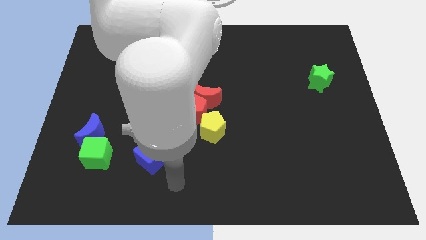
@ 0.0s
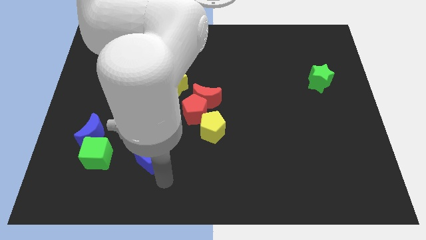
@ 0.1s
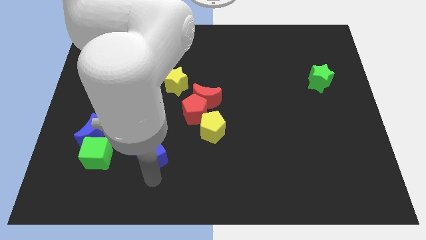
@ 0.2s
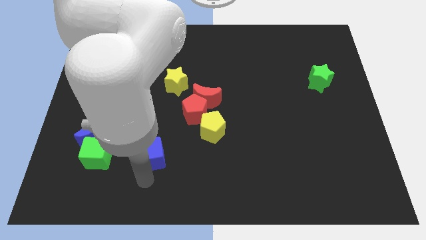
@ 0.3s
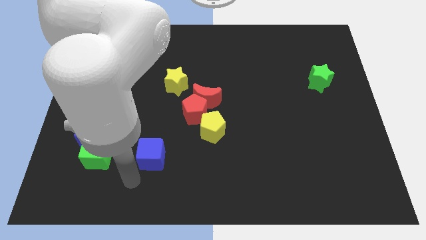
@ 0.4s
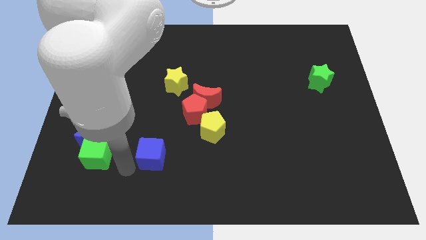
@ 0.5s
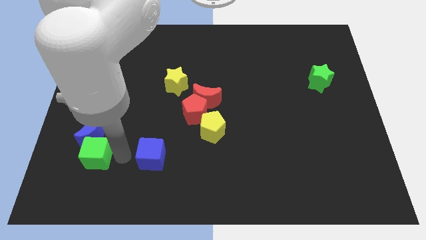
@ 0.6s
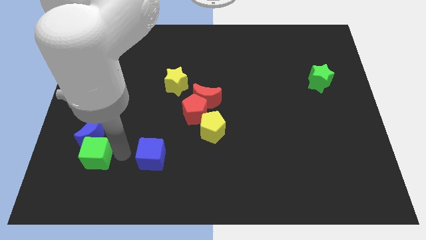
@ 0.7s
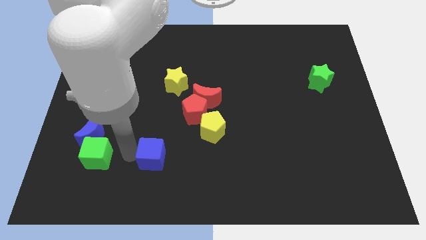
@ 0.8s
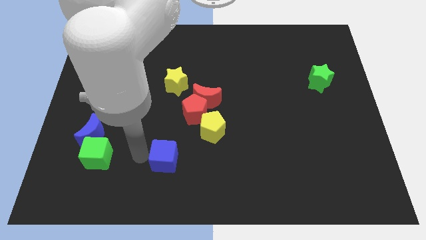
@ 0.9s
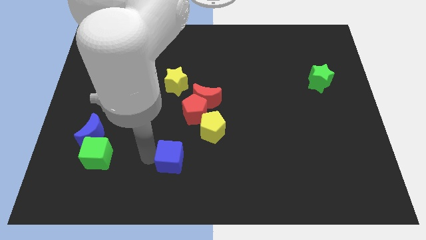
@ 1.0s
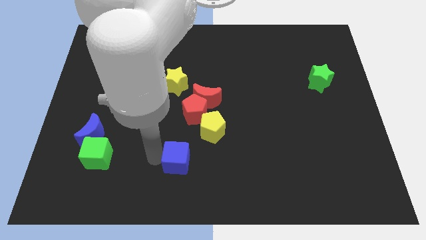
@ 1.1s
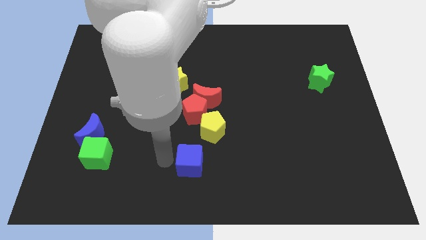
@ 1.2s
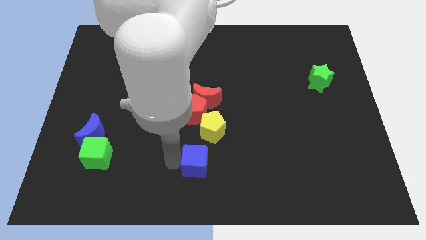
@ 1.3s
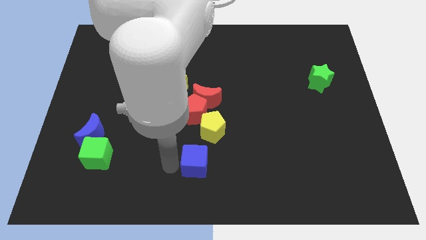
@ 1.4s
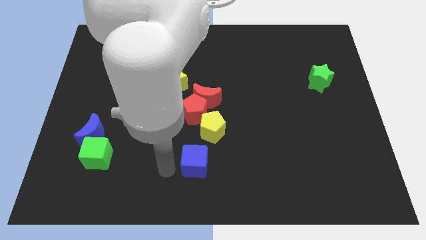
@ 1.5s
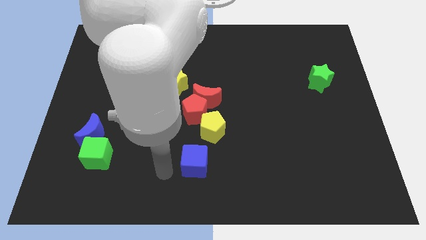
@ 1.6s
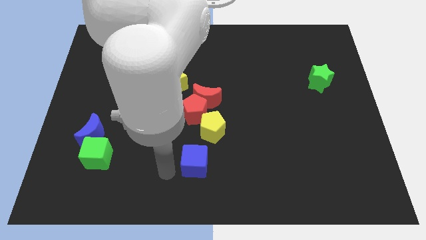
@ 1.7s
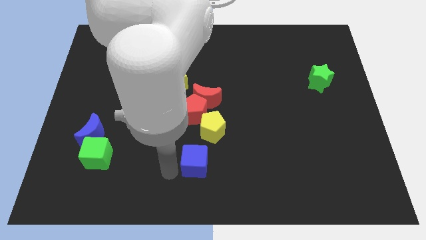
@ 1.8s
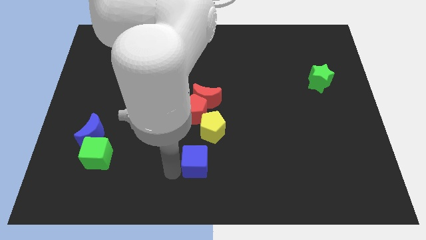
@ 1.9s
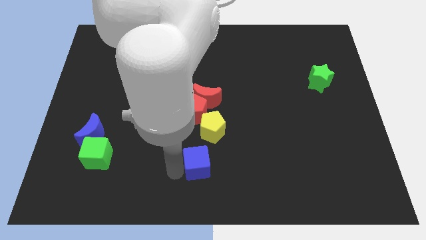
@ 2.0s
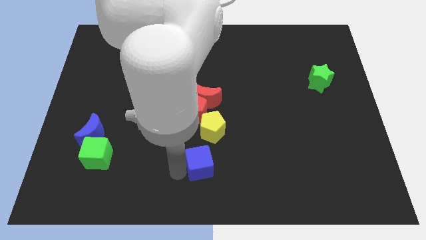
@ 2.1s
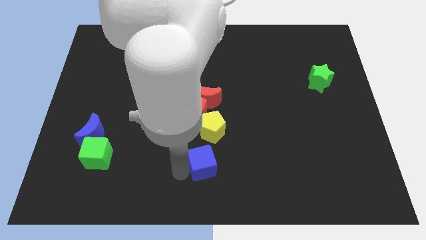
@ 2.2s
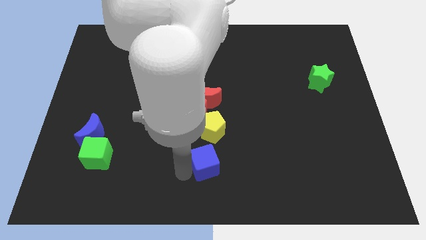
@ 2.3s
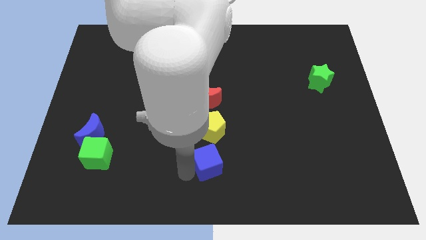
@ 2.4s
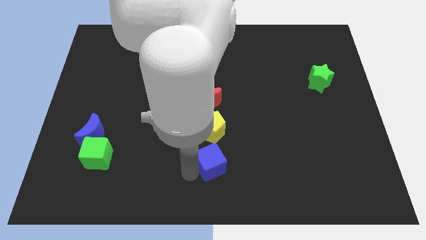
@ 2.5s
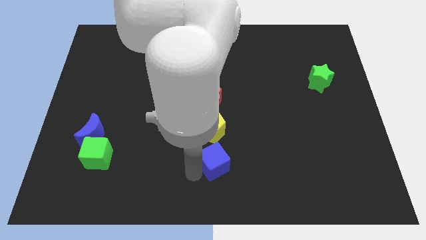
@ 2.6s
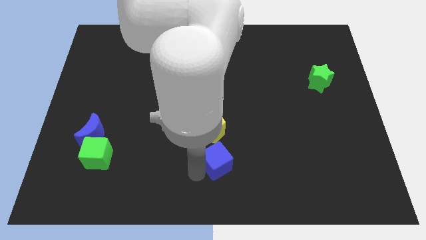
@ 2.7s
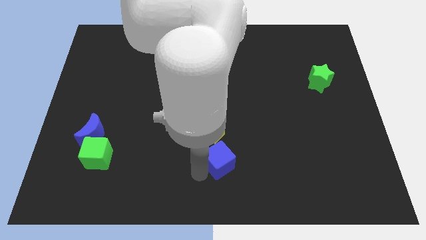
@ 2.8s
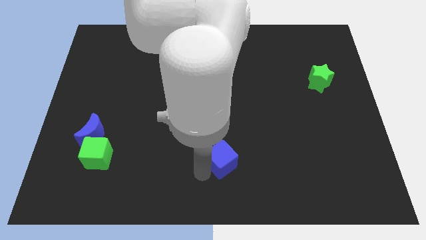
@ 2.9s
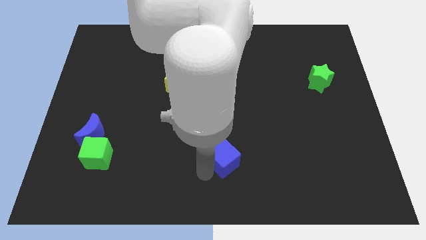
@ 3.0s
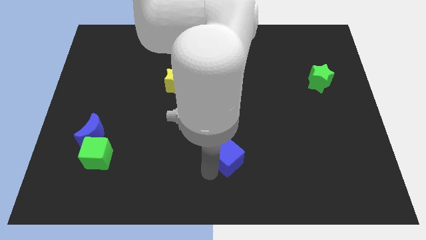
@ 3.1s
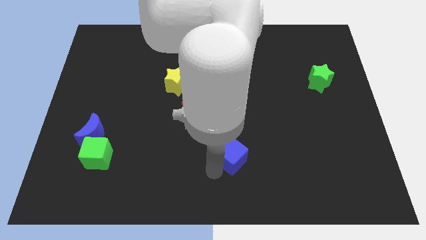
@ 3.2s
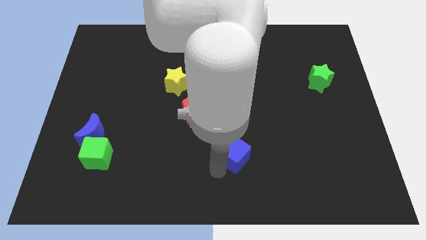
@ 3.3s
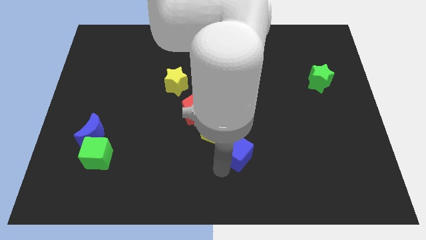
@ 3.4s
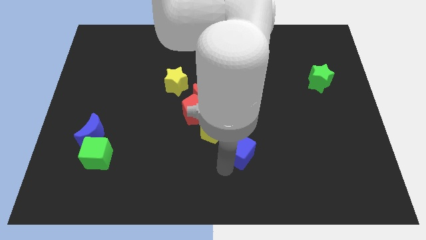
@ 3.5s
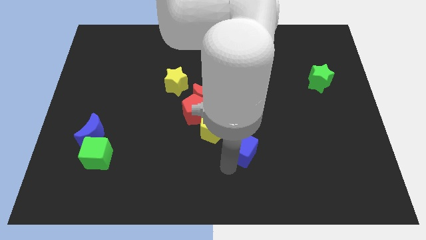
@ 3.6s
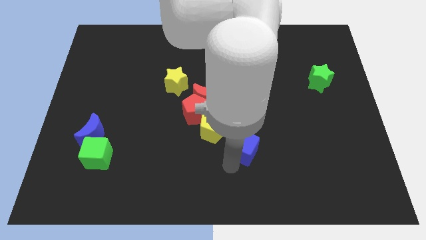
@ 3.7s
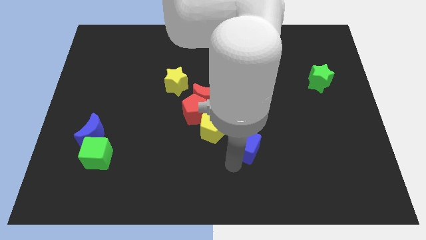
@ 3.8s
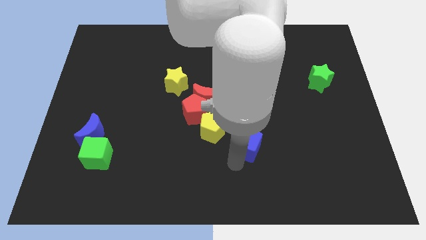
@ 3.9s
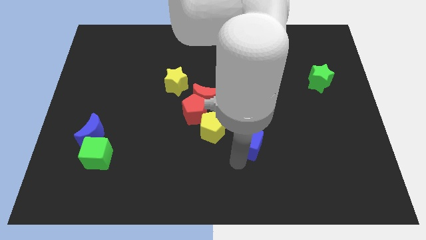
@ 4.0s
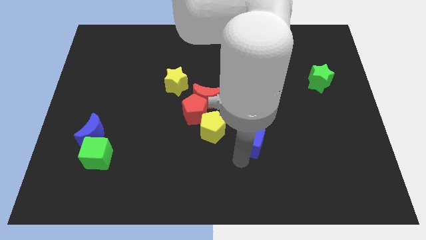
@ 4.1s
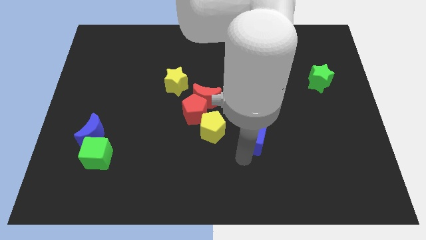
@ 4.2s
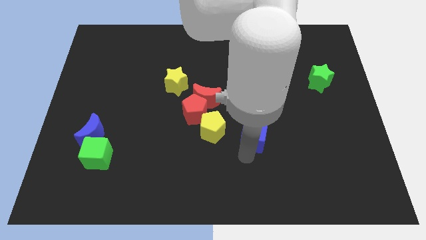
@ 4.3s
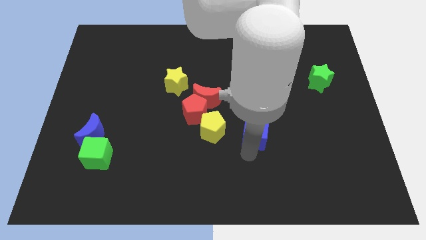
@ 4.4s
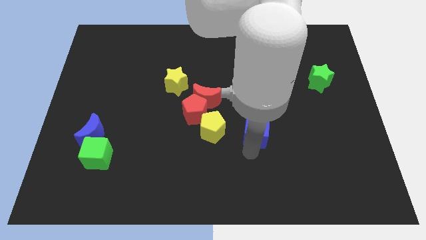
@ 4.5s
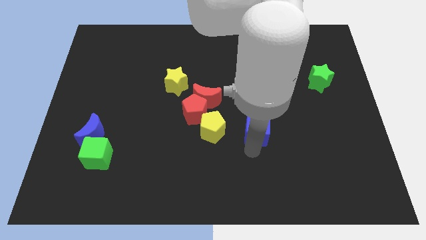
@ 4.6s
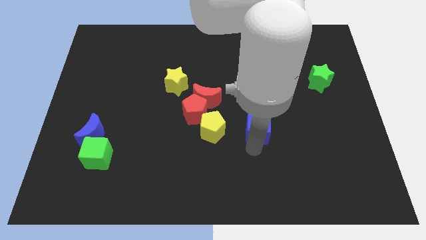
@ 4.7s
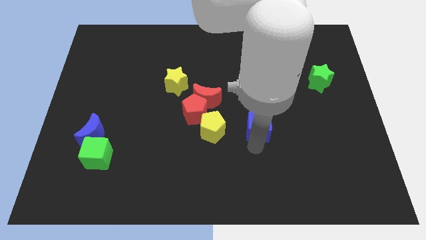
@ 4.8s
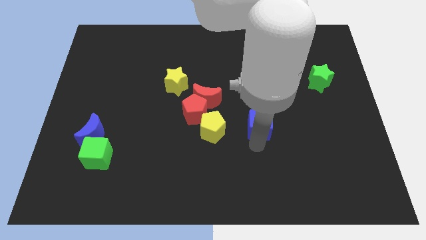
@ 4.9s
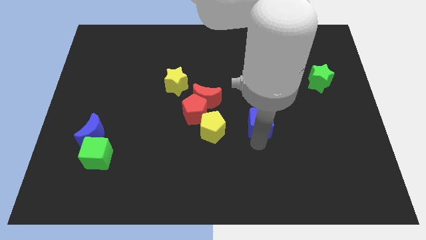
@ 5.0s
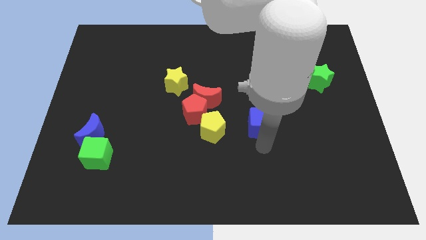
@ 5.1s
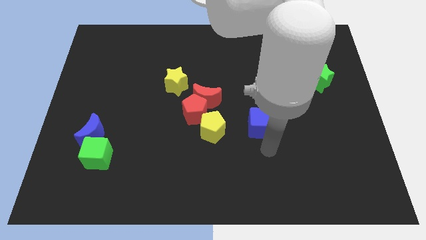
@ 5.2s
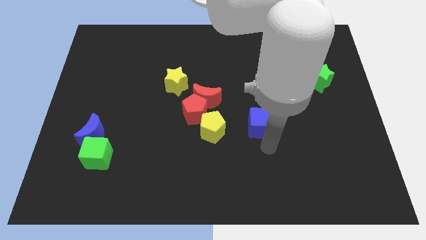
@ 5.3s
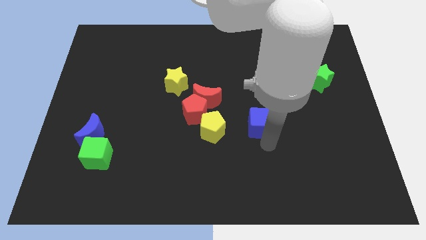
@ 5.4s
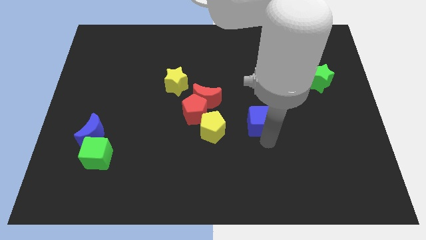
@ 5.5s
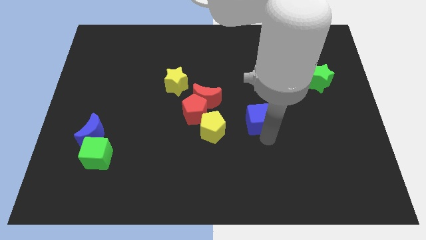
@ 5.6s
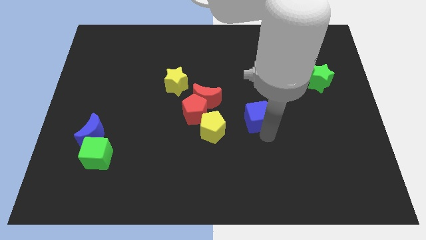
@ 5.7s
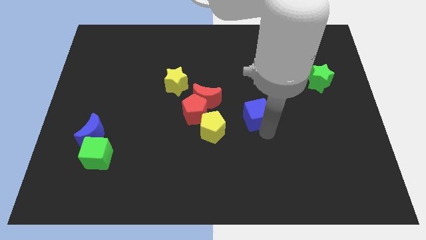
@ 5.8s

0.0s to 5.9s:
slide the blue cube right of the red moon

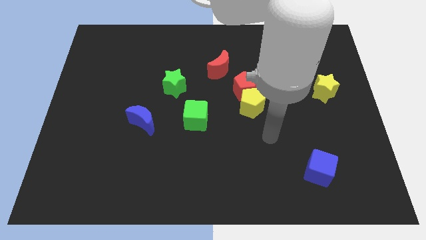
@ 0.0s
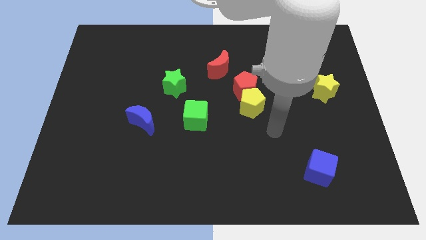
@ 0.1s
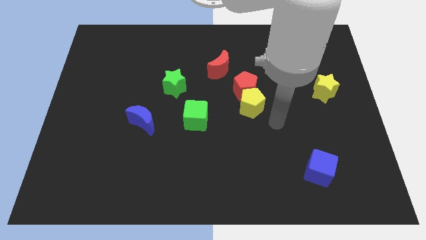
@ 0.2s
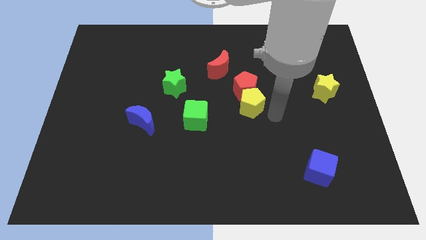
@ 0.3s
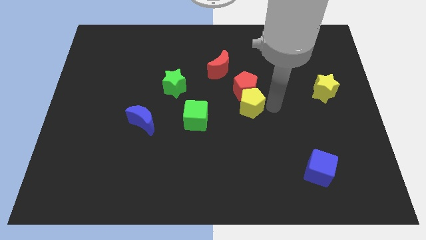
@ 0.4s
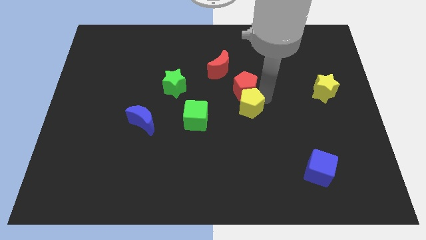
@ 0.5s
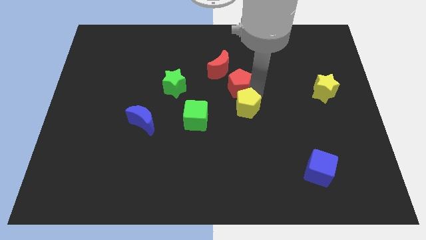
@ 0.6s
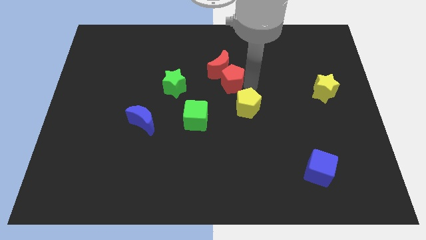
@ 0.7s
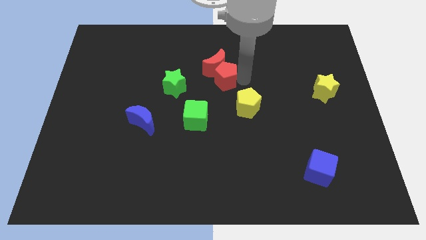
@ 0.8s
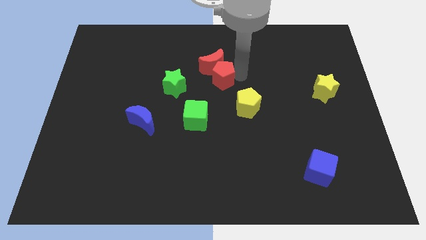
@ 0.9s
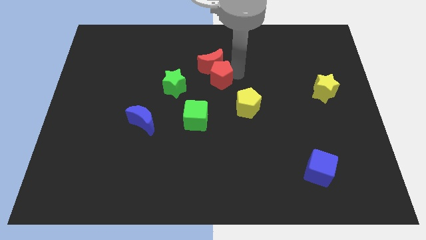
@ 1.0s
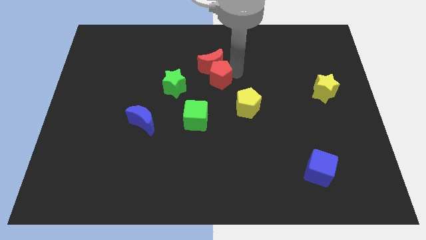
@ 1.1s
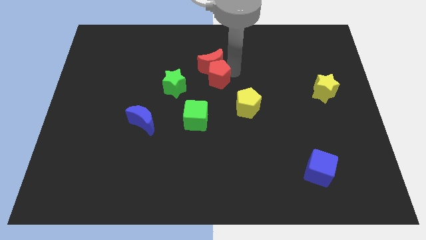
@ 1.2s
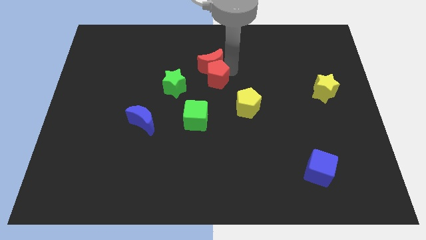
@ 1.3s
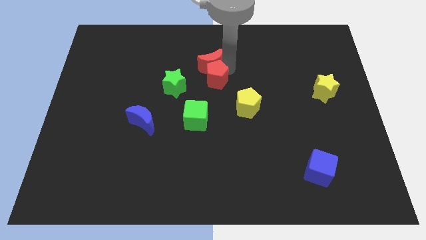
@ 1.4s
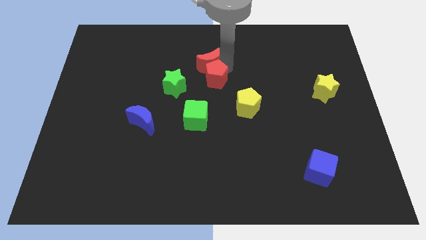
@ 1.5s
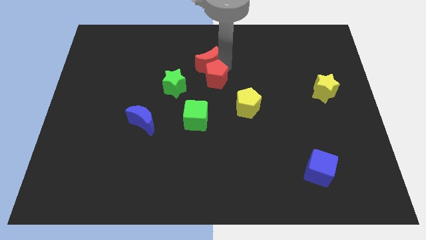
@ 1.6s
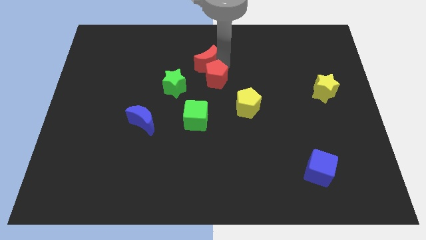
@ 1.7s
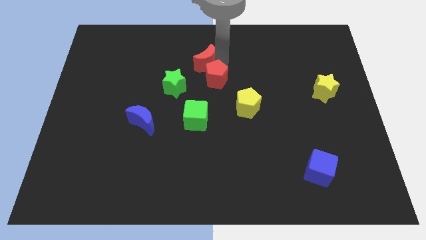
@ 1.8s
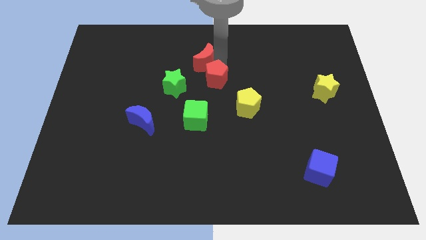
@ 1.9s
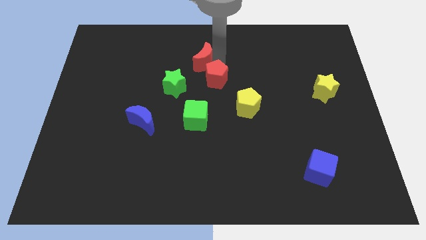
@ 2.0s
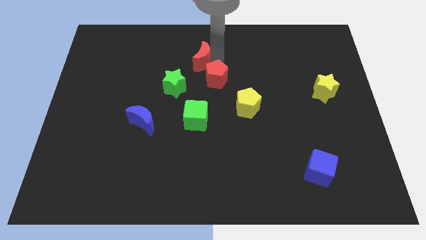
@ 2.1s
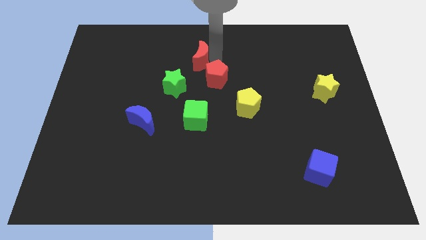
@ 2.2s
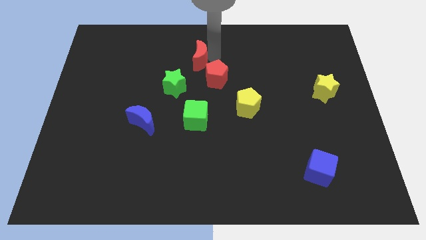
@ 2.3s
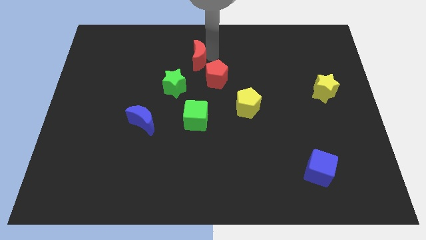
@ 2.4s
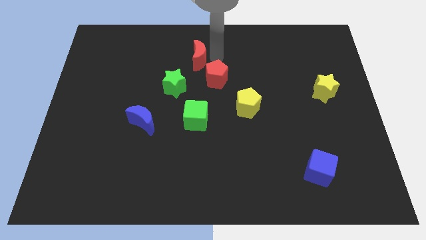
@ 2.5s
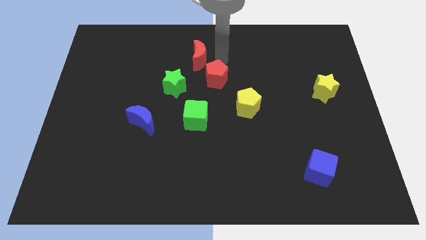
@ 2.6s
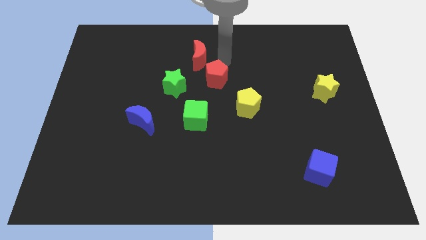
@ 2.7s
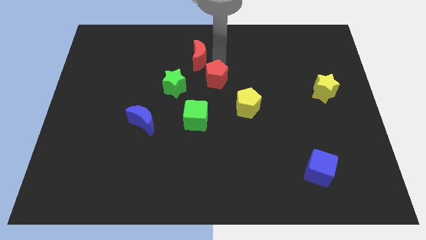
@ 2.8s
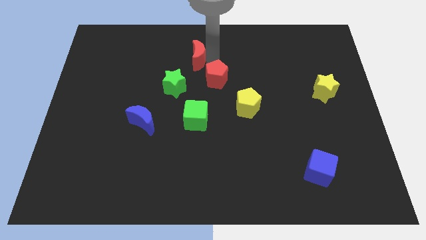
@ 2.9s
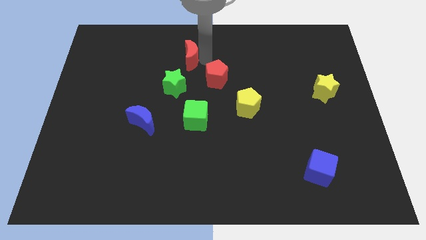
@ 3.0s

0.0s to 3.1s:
slide the red moon to the top of the green star
